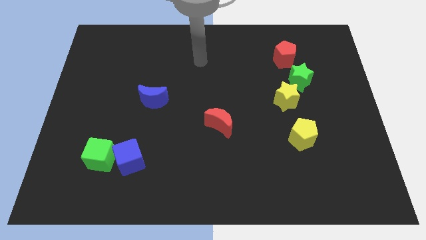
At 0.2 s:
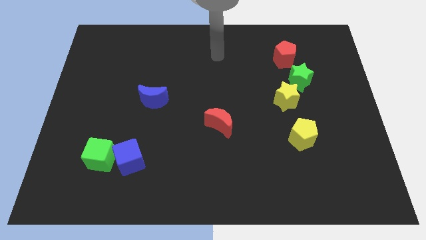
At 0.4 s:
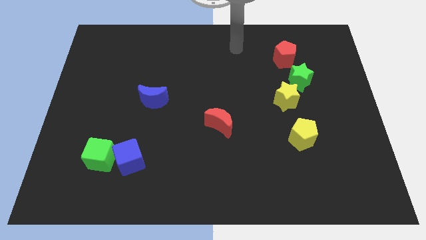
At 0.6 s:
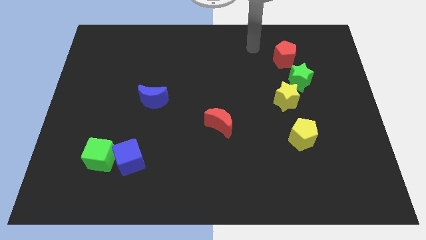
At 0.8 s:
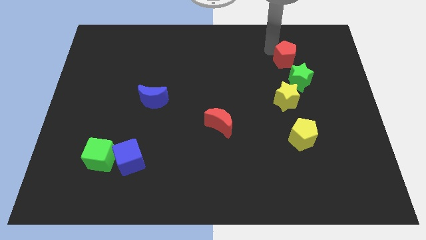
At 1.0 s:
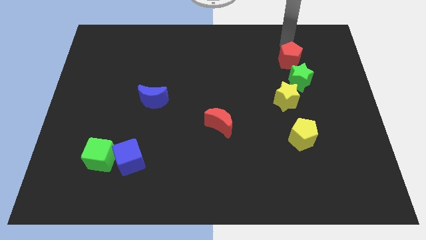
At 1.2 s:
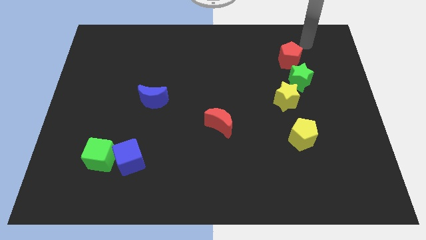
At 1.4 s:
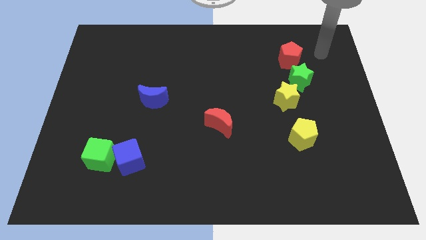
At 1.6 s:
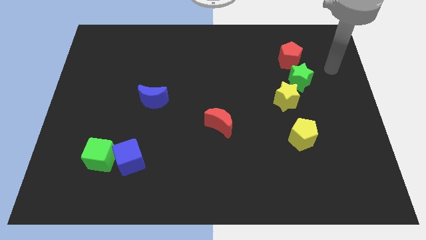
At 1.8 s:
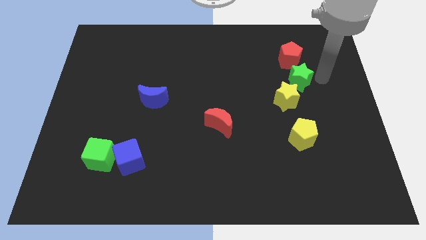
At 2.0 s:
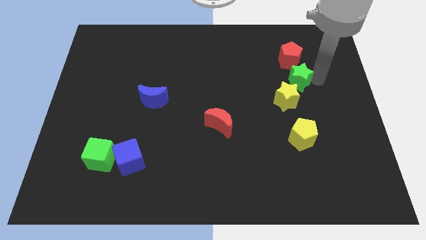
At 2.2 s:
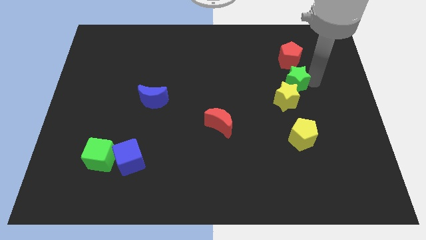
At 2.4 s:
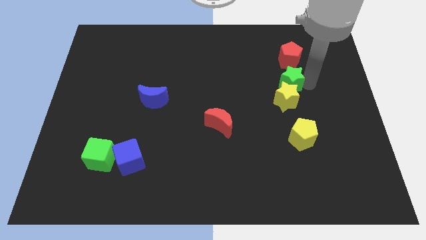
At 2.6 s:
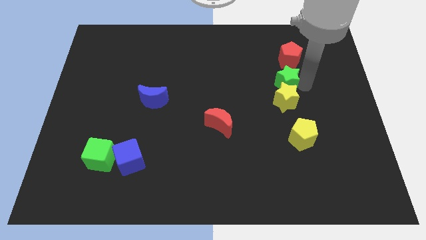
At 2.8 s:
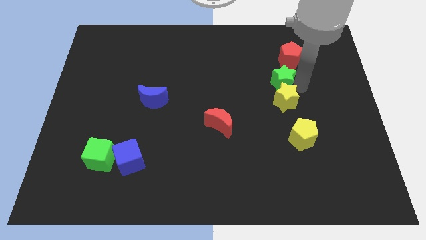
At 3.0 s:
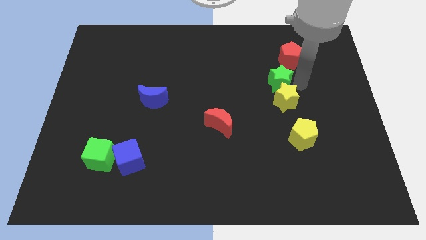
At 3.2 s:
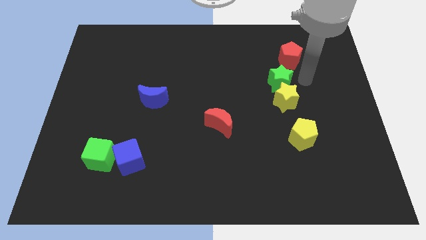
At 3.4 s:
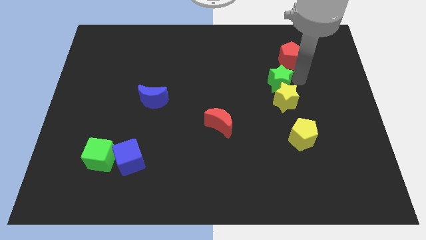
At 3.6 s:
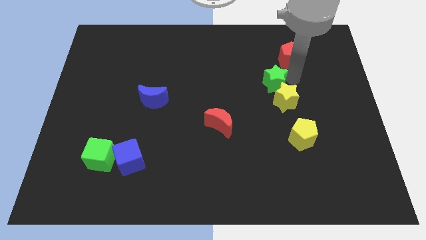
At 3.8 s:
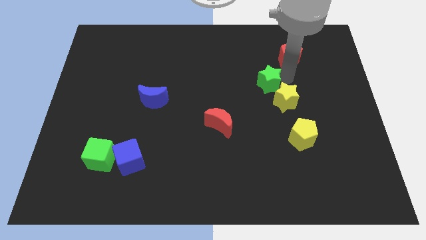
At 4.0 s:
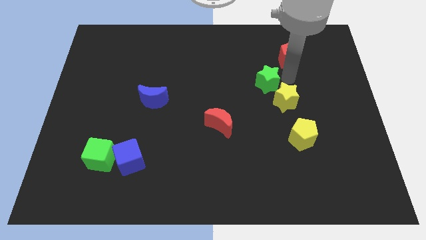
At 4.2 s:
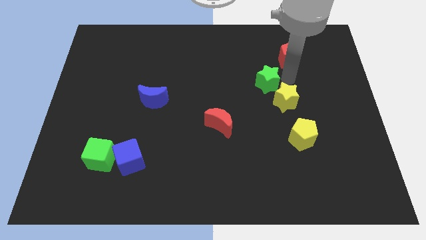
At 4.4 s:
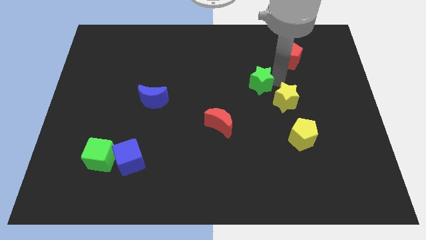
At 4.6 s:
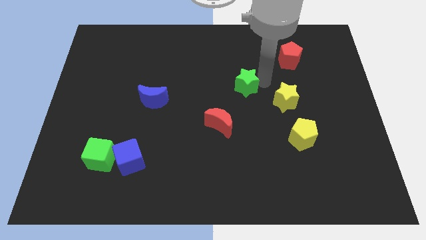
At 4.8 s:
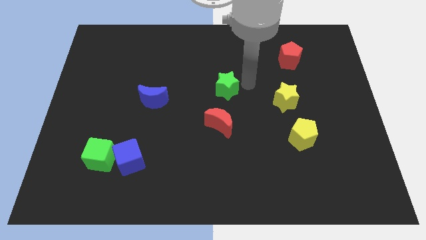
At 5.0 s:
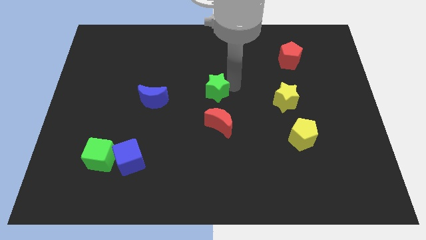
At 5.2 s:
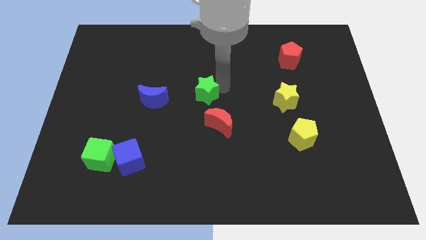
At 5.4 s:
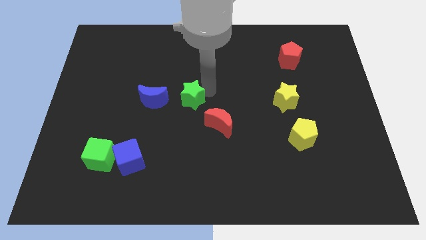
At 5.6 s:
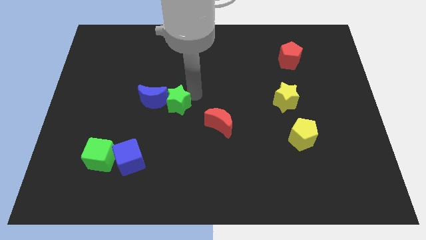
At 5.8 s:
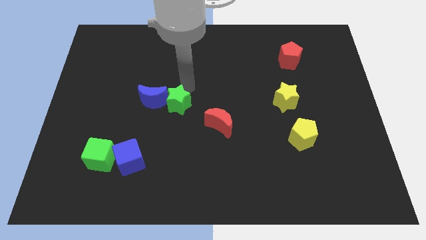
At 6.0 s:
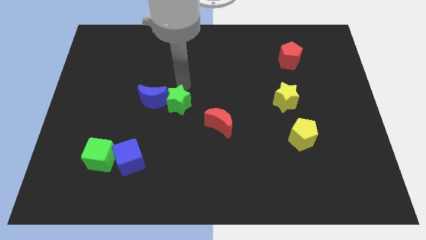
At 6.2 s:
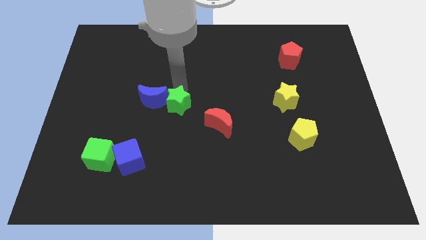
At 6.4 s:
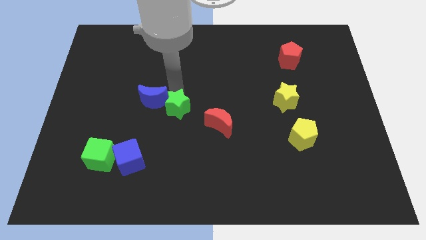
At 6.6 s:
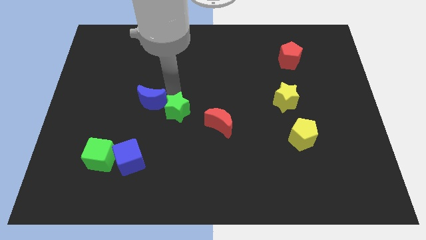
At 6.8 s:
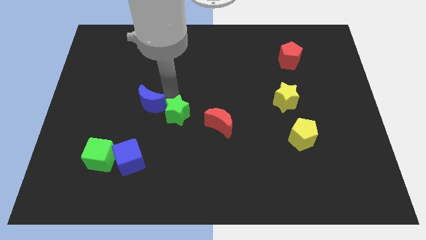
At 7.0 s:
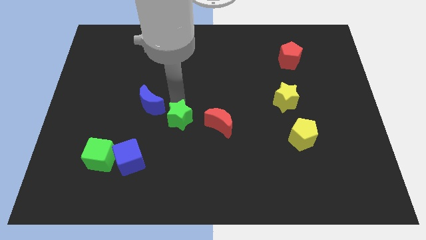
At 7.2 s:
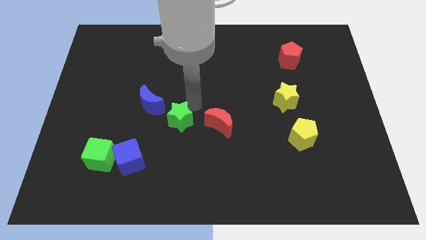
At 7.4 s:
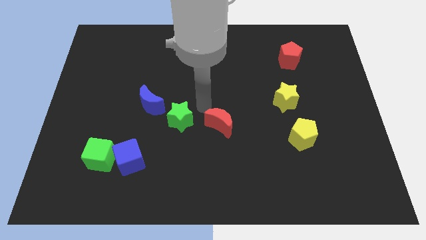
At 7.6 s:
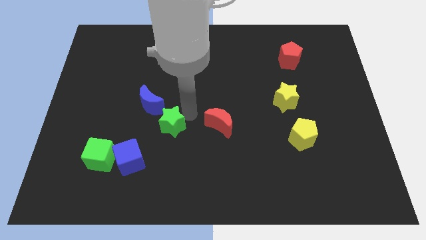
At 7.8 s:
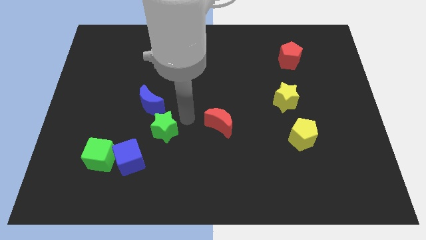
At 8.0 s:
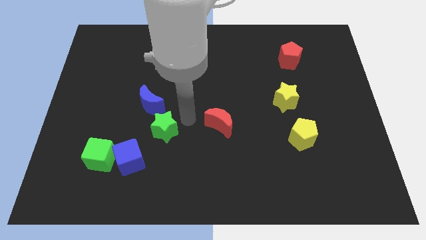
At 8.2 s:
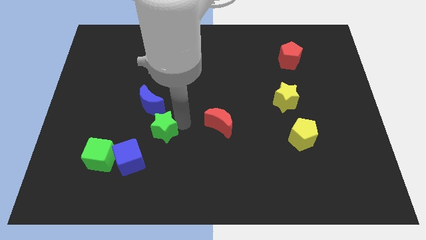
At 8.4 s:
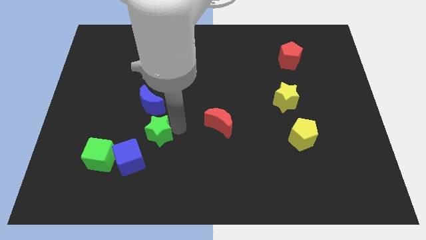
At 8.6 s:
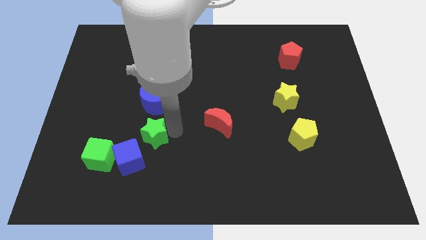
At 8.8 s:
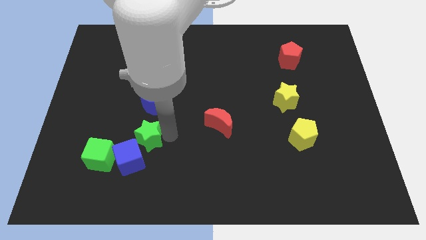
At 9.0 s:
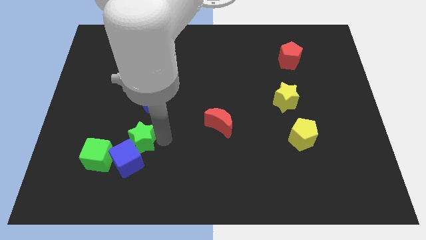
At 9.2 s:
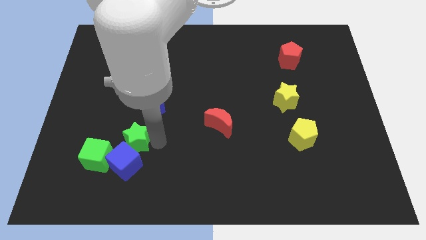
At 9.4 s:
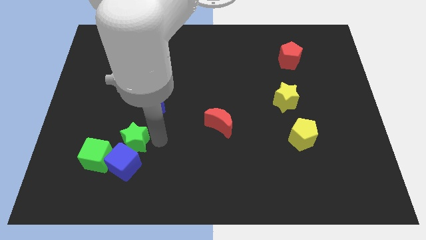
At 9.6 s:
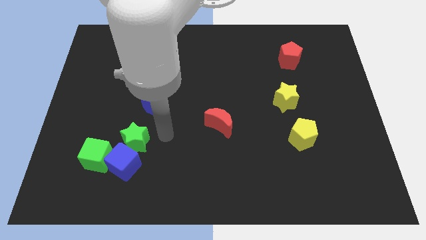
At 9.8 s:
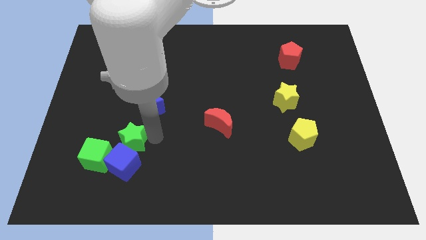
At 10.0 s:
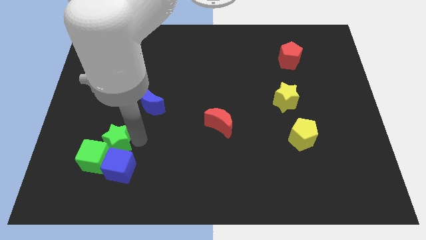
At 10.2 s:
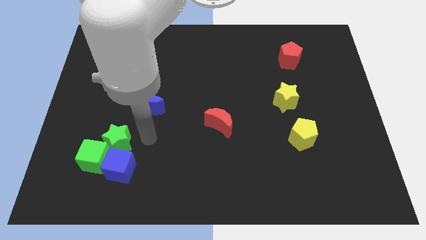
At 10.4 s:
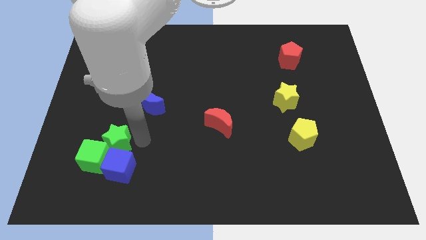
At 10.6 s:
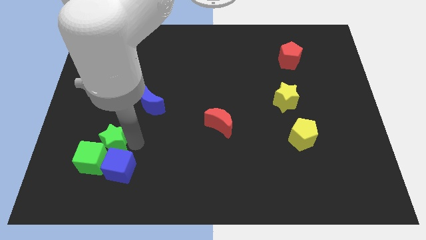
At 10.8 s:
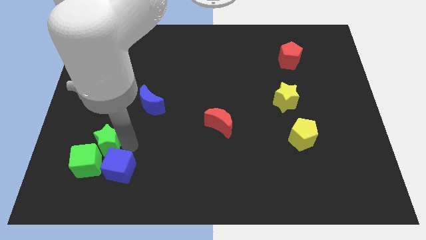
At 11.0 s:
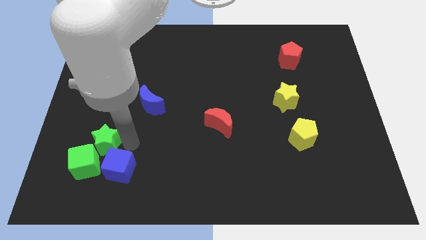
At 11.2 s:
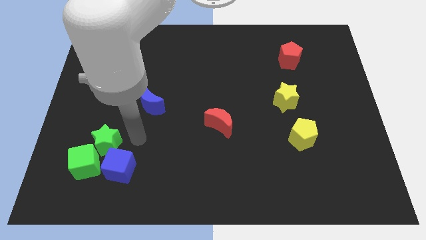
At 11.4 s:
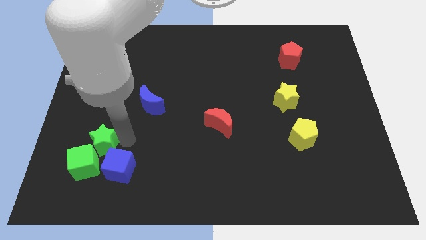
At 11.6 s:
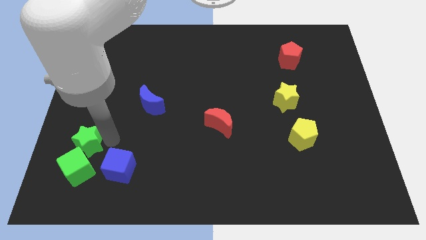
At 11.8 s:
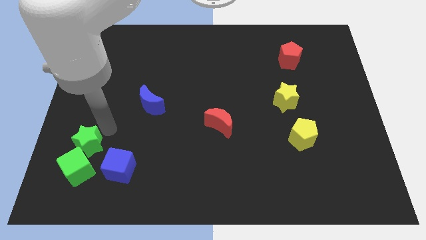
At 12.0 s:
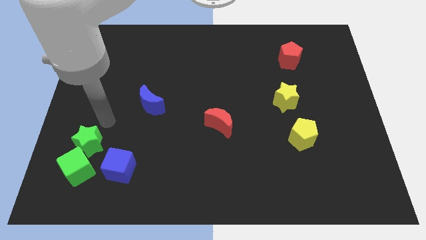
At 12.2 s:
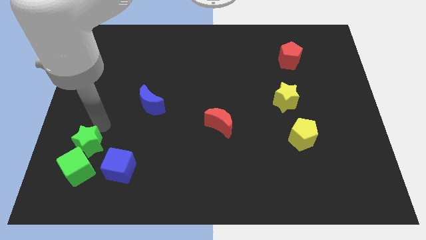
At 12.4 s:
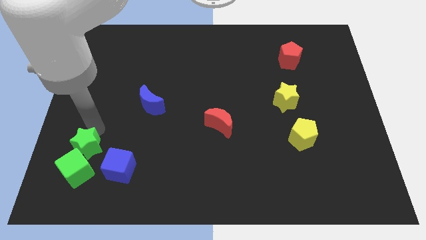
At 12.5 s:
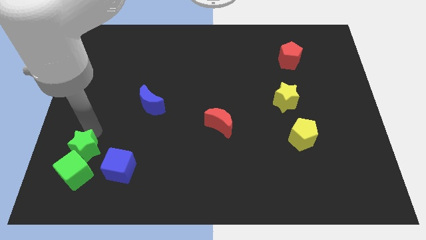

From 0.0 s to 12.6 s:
move the green star to the left of the blue cube

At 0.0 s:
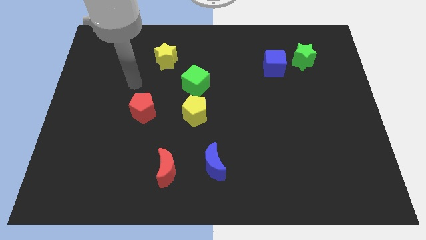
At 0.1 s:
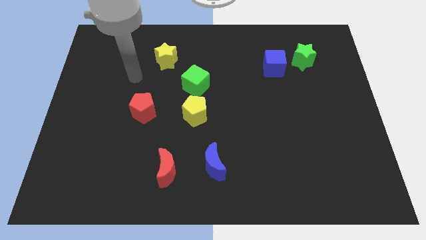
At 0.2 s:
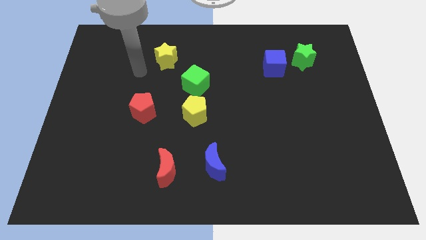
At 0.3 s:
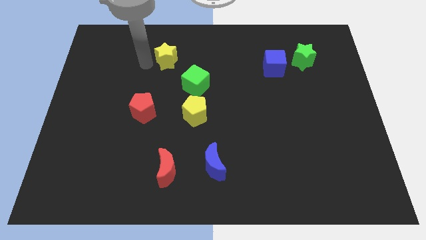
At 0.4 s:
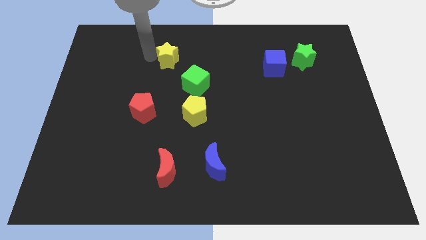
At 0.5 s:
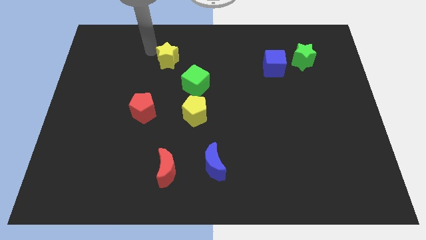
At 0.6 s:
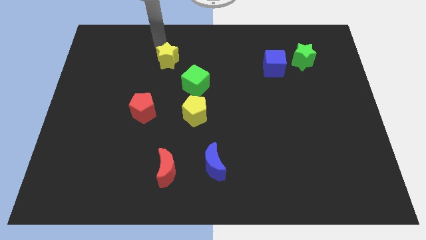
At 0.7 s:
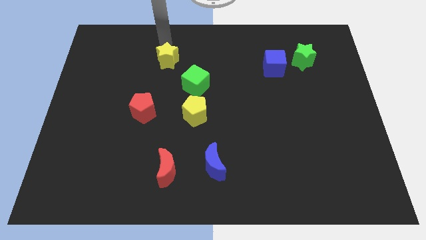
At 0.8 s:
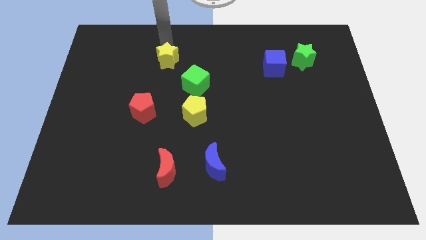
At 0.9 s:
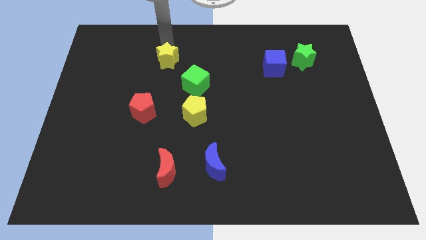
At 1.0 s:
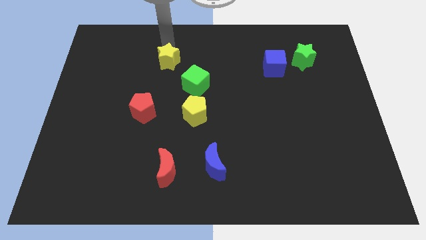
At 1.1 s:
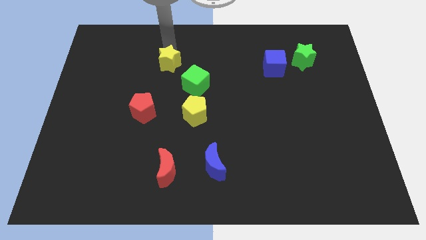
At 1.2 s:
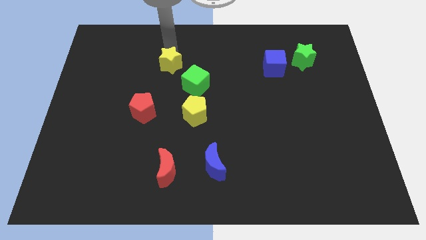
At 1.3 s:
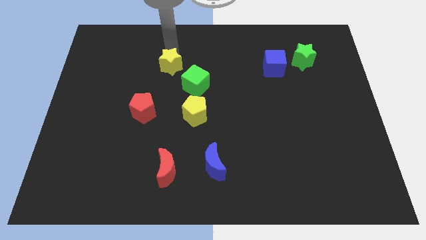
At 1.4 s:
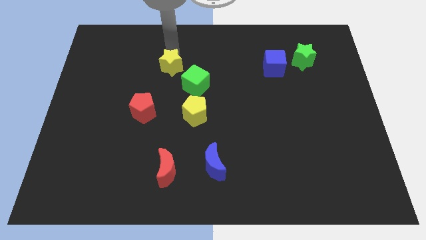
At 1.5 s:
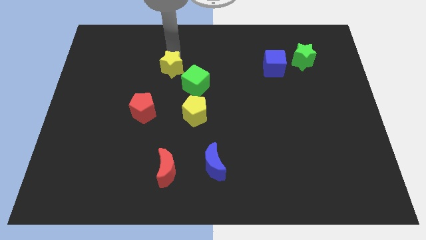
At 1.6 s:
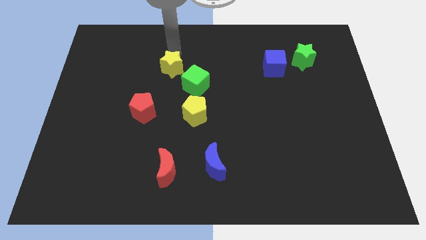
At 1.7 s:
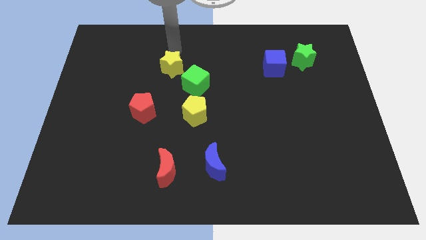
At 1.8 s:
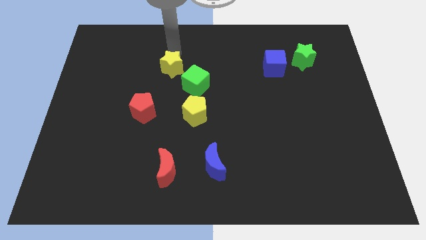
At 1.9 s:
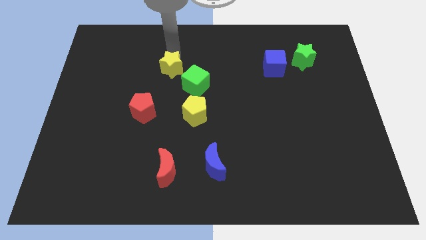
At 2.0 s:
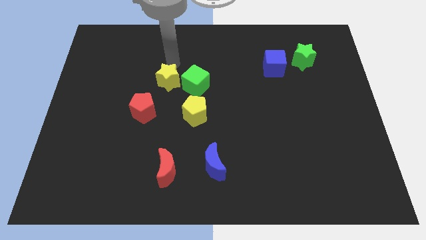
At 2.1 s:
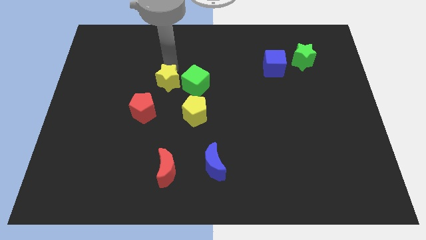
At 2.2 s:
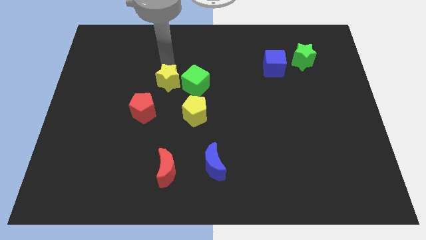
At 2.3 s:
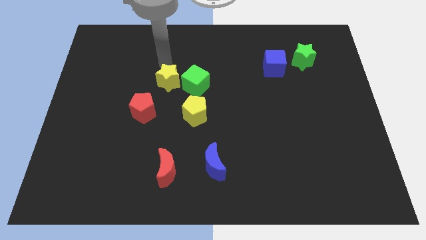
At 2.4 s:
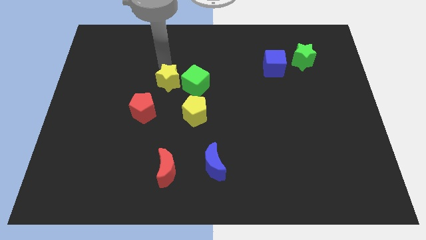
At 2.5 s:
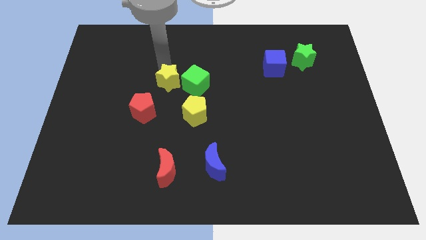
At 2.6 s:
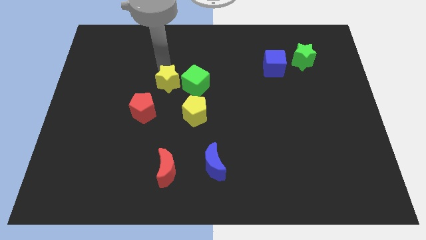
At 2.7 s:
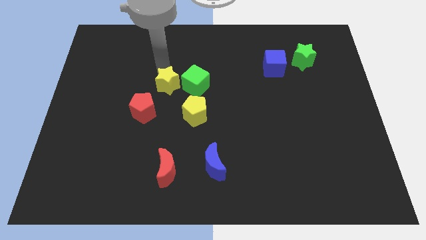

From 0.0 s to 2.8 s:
slide the yellow star to the bottom left of the green cube
